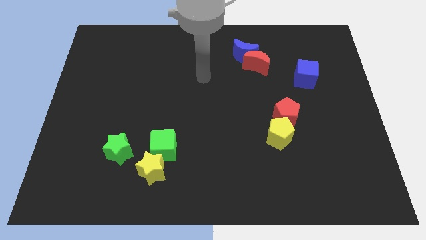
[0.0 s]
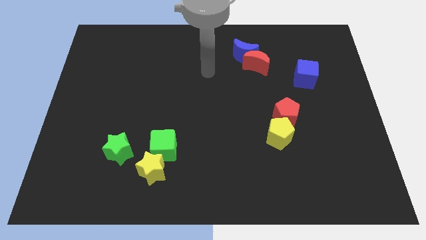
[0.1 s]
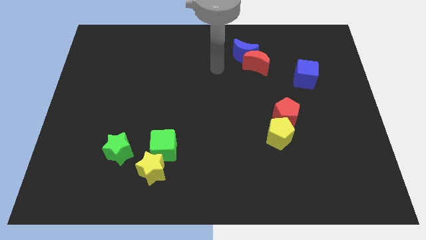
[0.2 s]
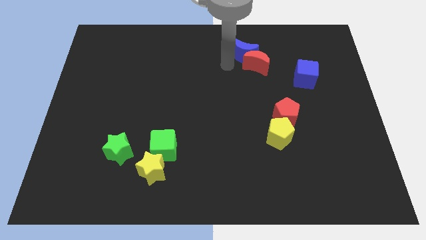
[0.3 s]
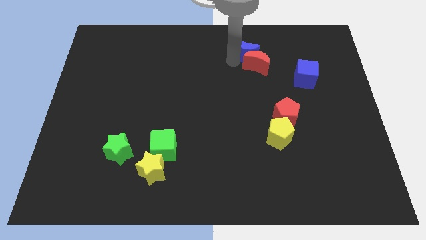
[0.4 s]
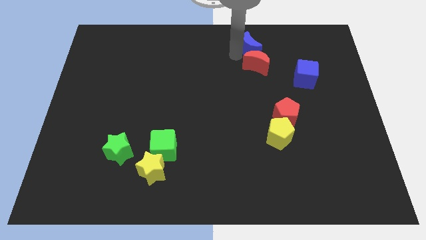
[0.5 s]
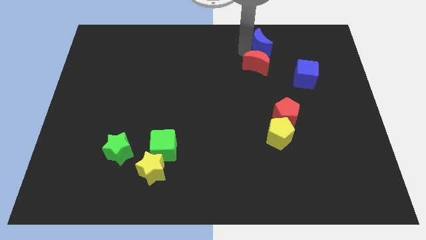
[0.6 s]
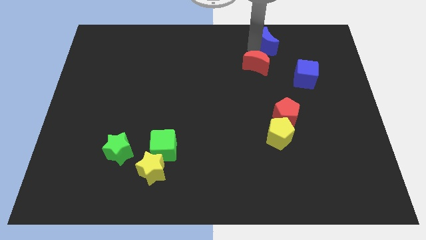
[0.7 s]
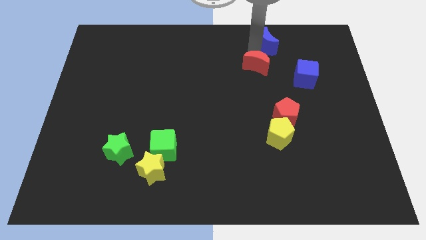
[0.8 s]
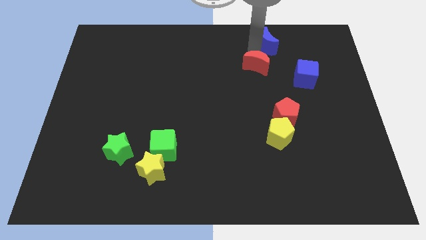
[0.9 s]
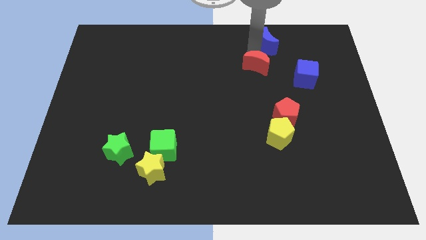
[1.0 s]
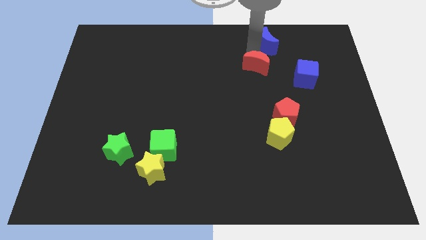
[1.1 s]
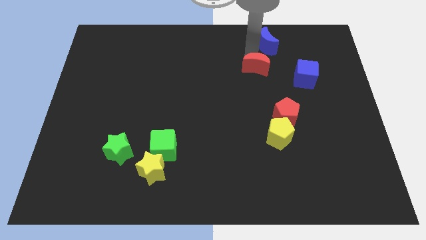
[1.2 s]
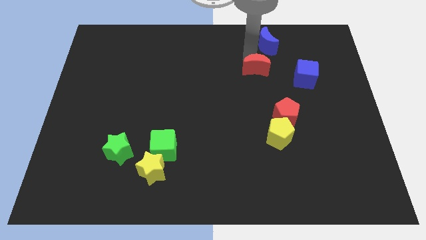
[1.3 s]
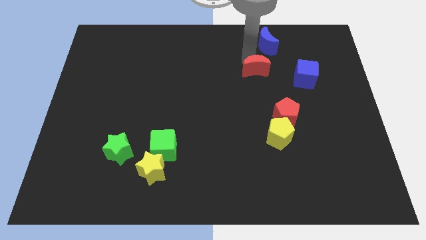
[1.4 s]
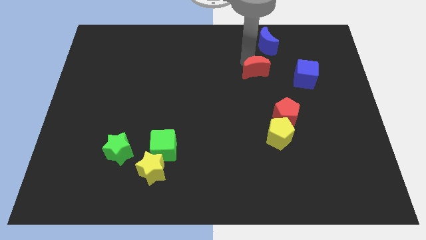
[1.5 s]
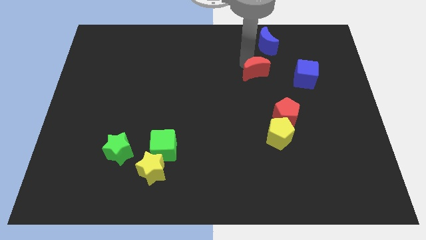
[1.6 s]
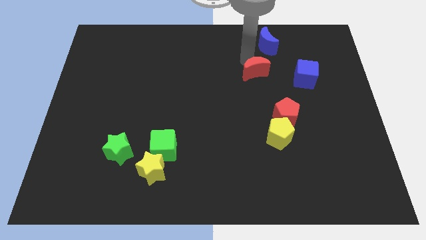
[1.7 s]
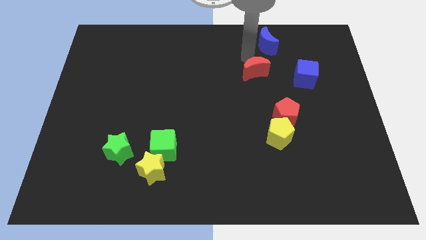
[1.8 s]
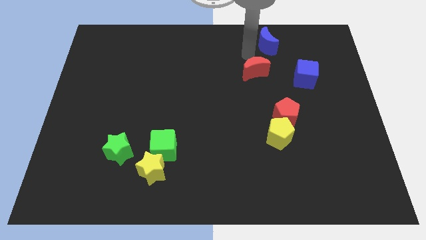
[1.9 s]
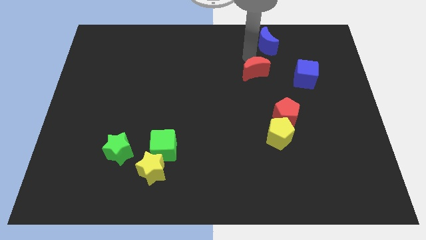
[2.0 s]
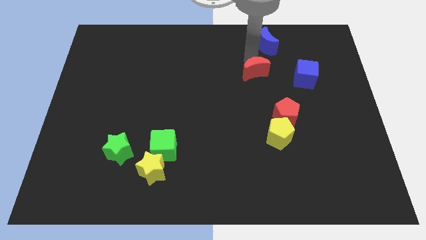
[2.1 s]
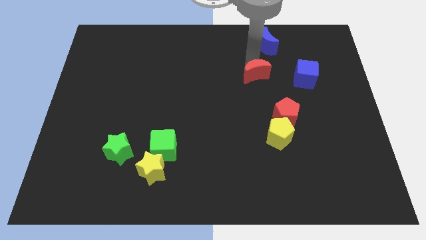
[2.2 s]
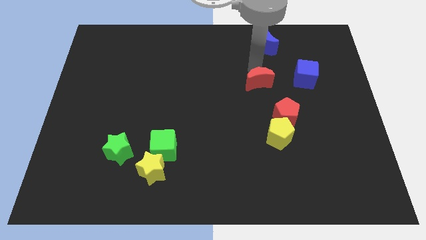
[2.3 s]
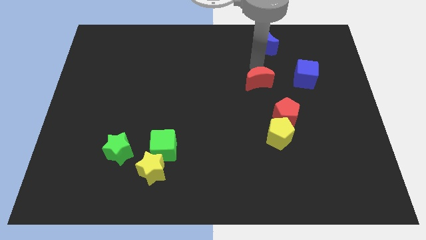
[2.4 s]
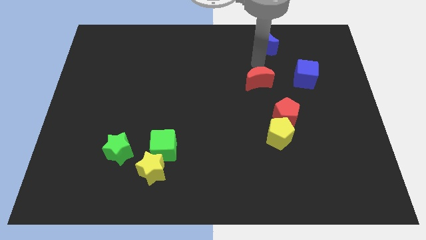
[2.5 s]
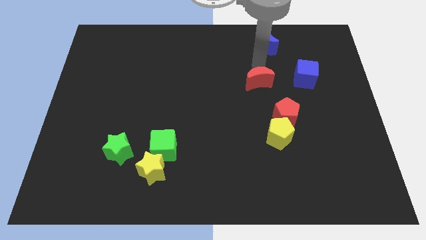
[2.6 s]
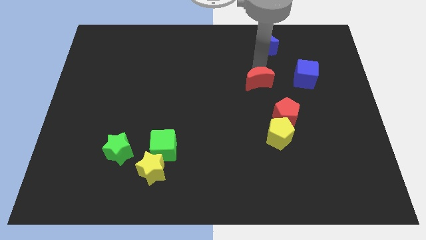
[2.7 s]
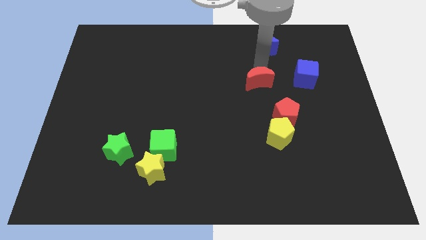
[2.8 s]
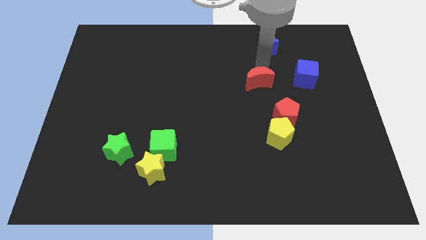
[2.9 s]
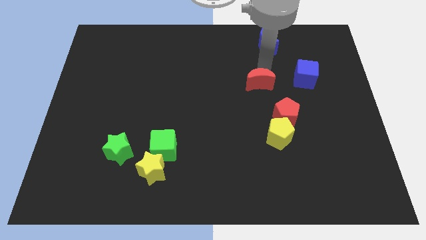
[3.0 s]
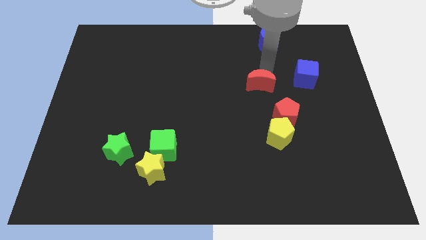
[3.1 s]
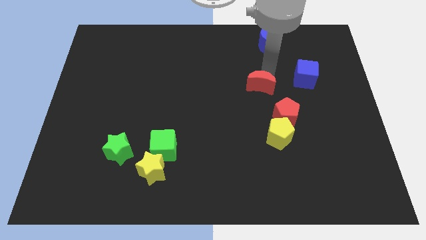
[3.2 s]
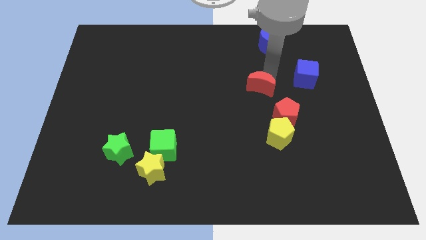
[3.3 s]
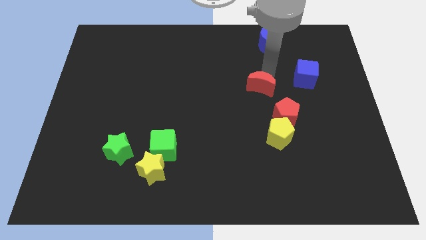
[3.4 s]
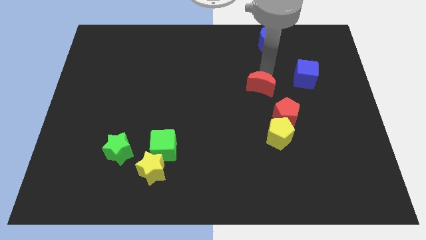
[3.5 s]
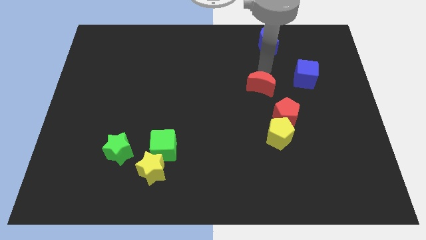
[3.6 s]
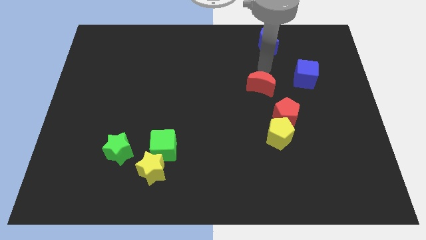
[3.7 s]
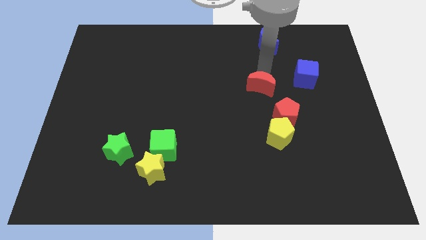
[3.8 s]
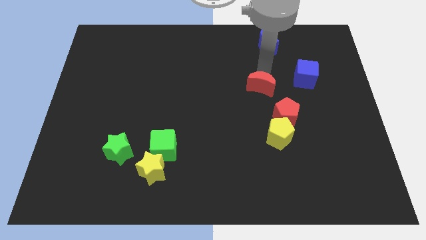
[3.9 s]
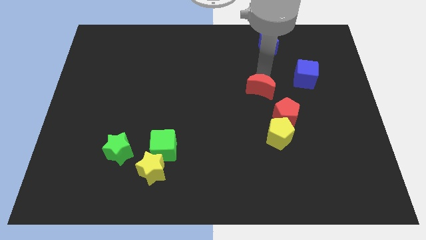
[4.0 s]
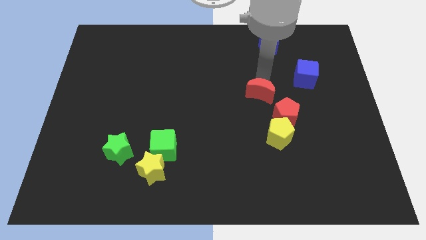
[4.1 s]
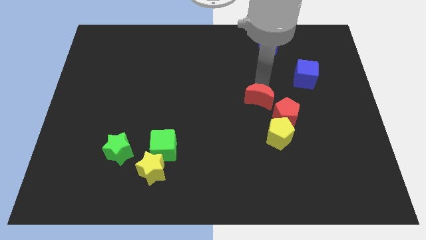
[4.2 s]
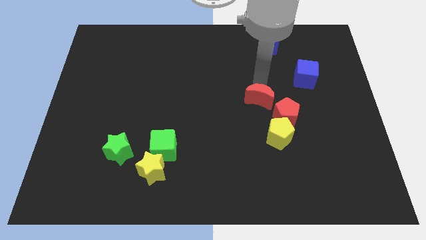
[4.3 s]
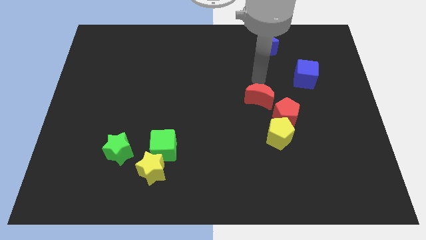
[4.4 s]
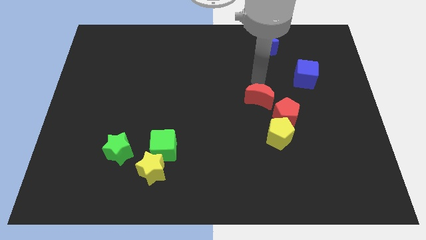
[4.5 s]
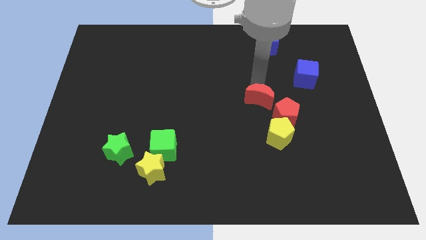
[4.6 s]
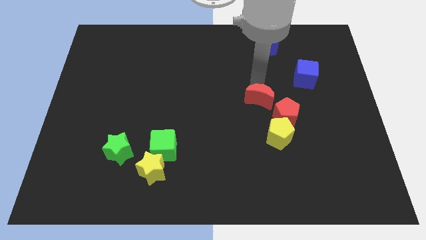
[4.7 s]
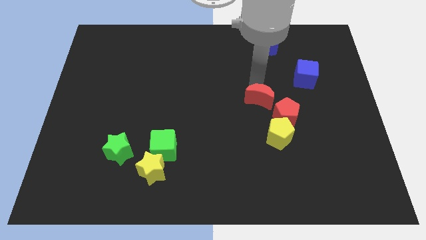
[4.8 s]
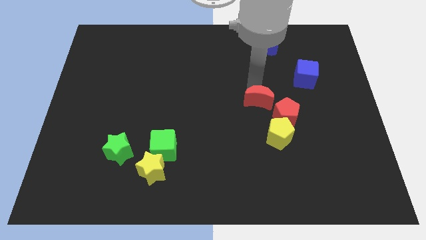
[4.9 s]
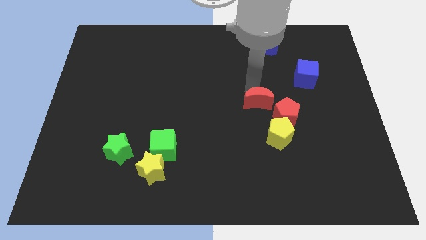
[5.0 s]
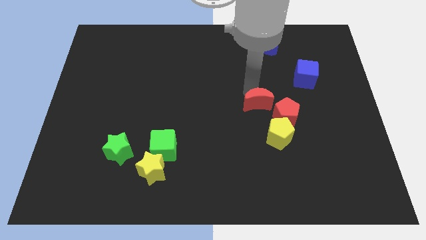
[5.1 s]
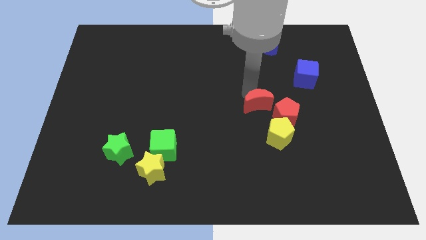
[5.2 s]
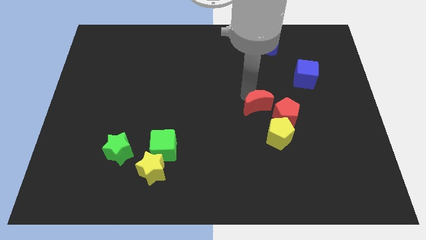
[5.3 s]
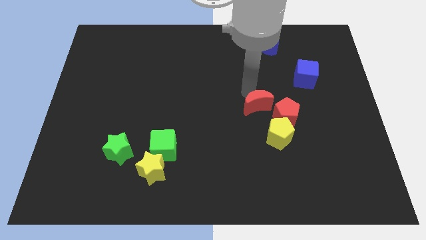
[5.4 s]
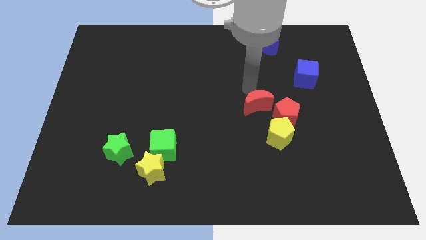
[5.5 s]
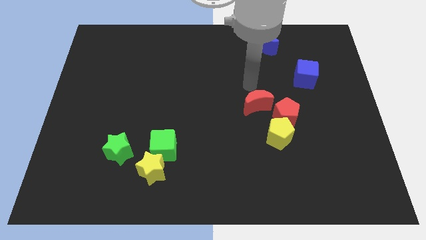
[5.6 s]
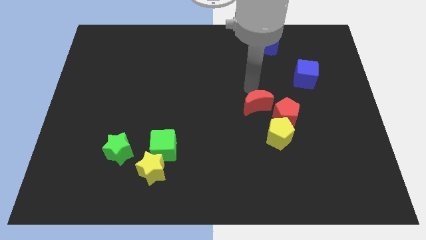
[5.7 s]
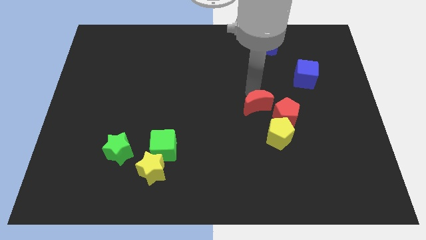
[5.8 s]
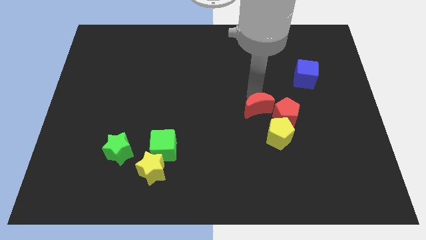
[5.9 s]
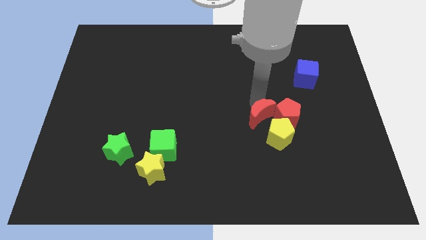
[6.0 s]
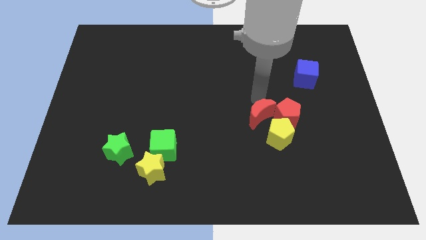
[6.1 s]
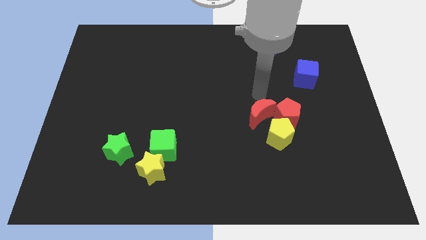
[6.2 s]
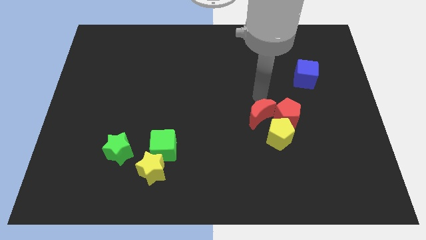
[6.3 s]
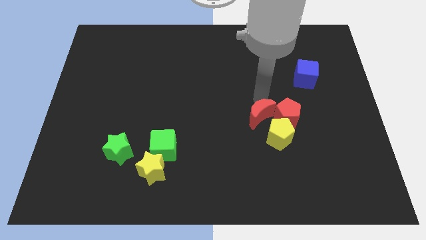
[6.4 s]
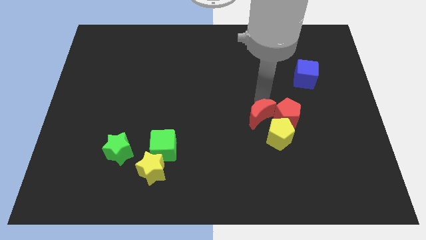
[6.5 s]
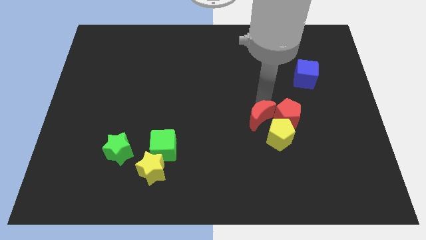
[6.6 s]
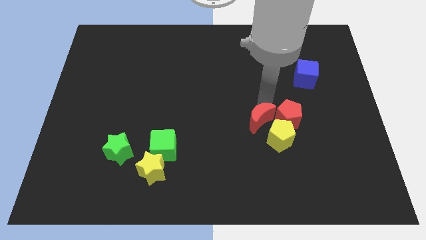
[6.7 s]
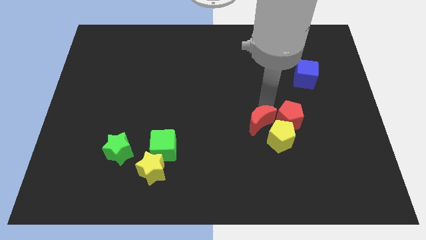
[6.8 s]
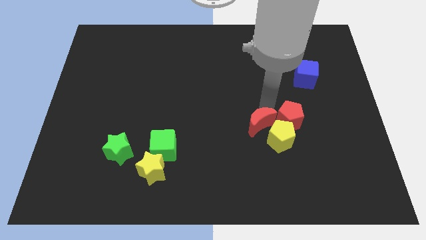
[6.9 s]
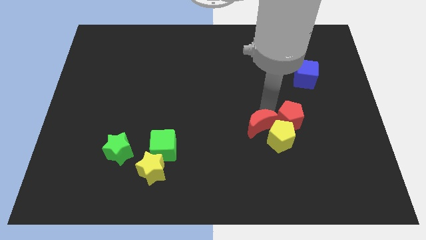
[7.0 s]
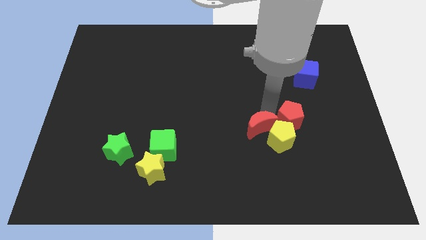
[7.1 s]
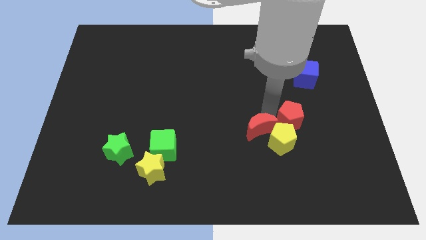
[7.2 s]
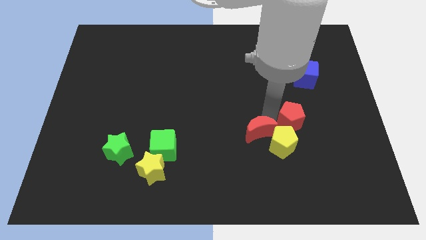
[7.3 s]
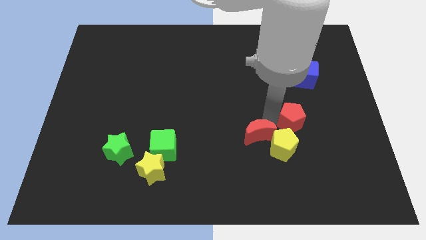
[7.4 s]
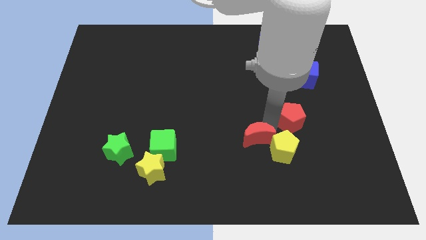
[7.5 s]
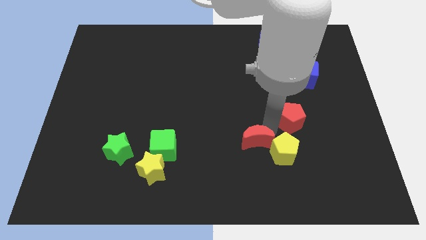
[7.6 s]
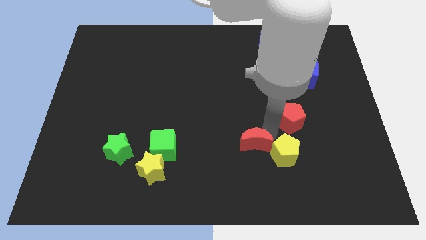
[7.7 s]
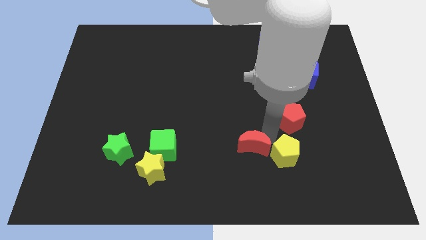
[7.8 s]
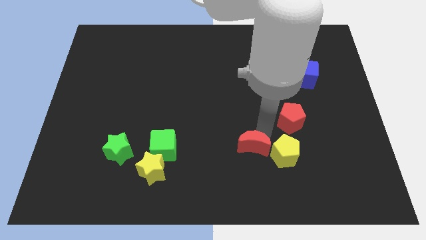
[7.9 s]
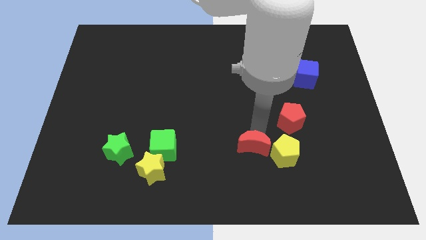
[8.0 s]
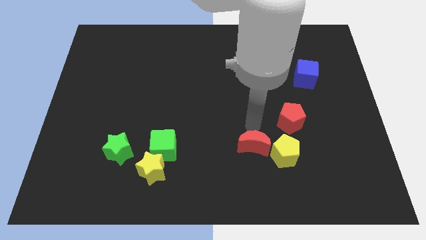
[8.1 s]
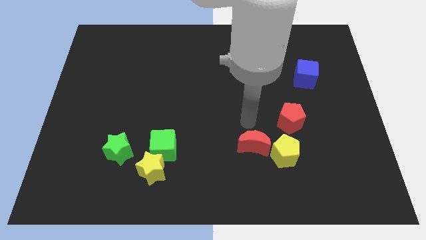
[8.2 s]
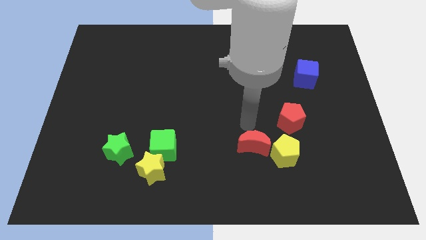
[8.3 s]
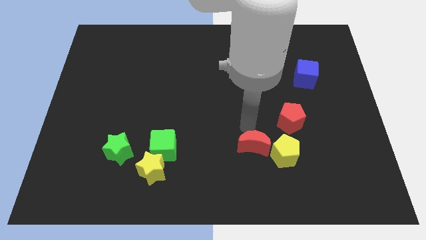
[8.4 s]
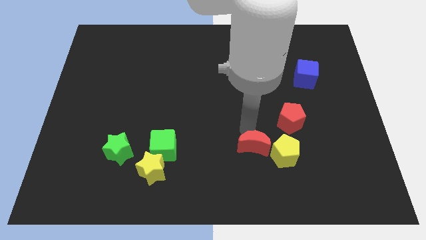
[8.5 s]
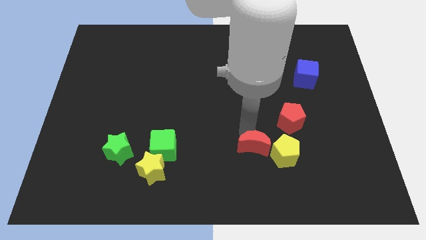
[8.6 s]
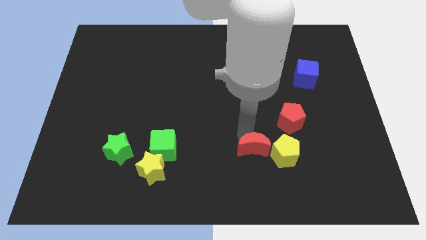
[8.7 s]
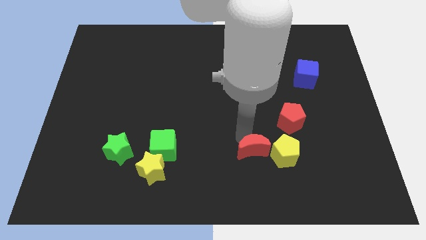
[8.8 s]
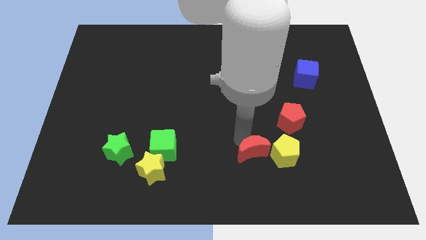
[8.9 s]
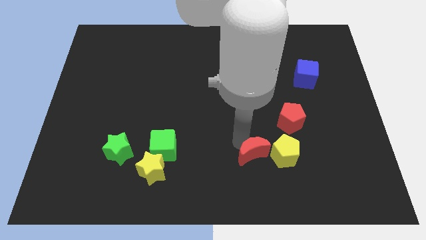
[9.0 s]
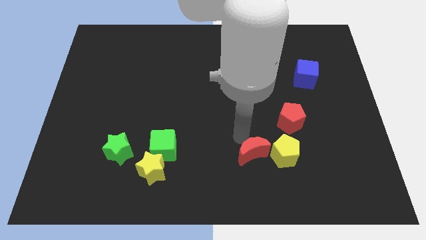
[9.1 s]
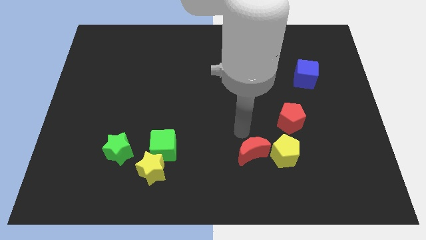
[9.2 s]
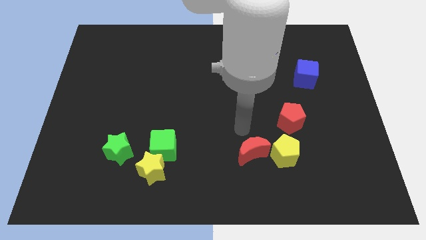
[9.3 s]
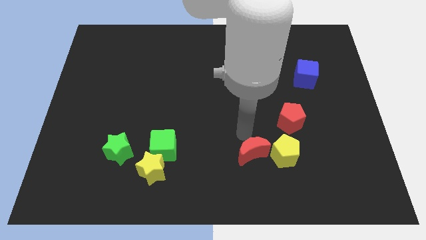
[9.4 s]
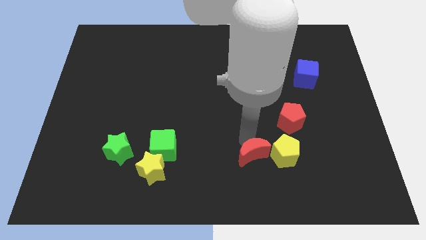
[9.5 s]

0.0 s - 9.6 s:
slide the red moon to the bottom left side of the yellow pentagon
